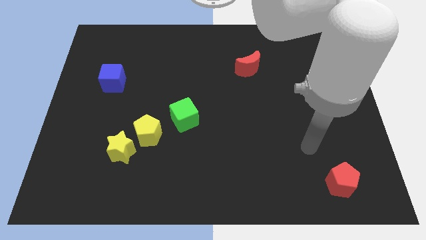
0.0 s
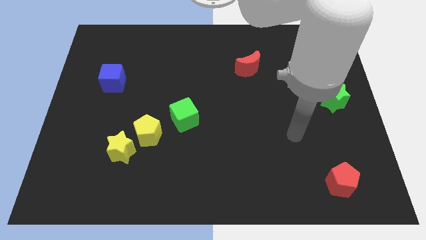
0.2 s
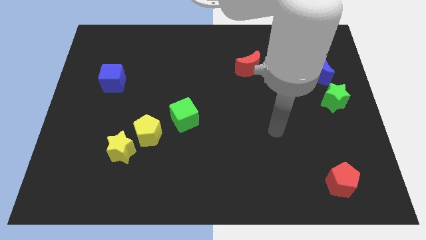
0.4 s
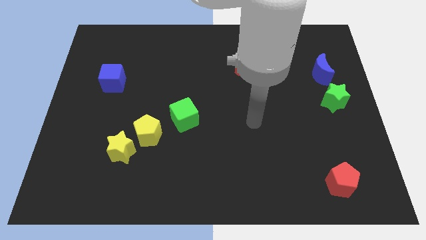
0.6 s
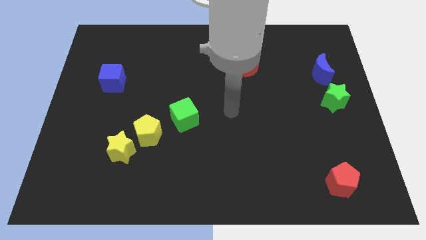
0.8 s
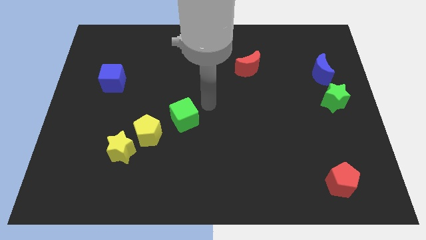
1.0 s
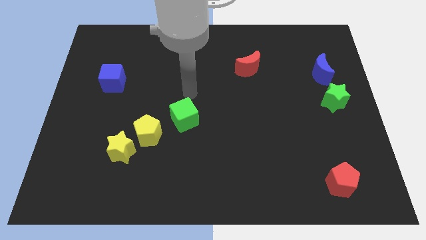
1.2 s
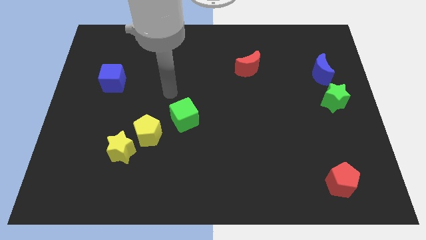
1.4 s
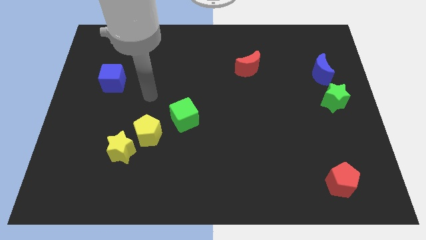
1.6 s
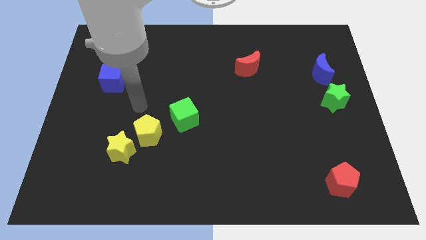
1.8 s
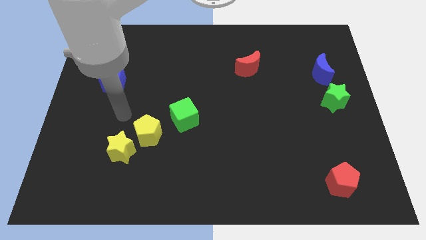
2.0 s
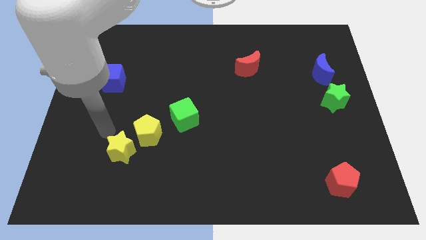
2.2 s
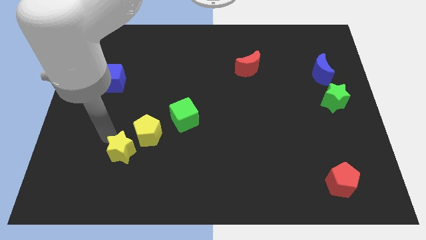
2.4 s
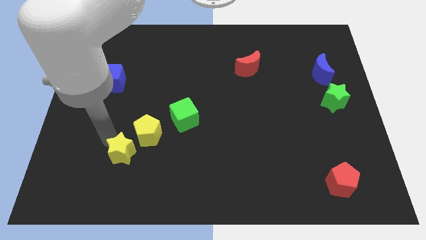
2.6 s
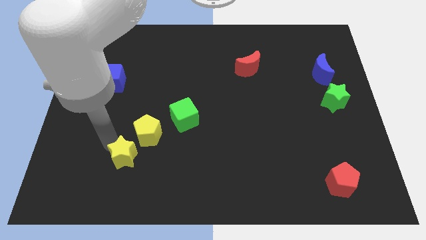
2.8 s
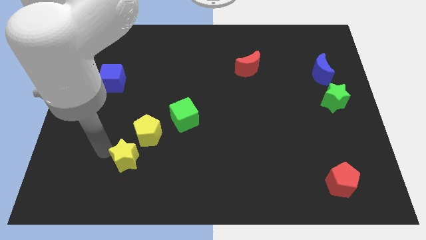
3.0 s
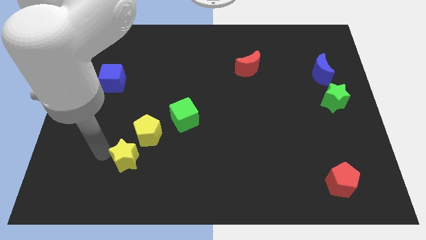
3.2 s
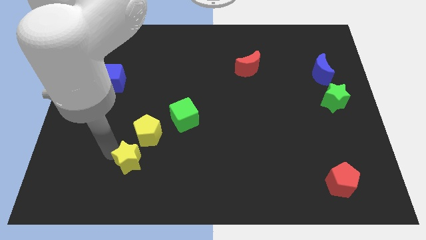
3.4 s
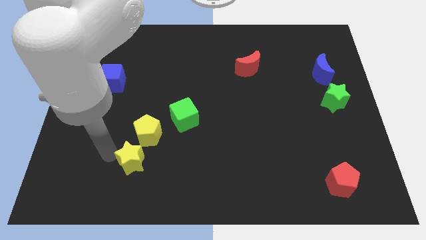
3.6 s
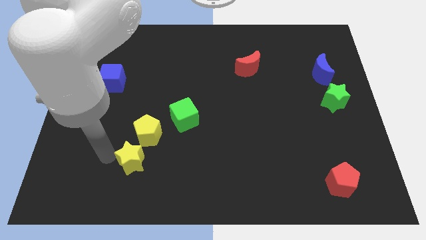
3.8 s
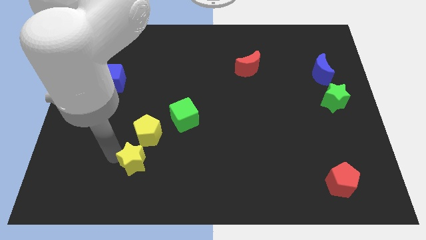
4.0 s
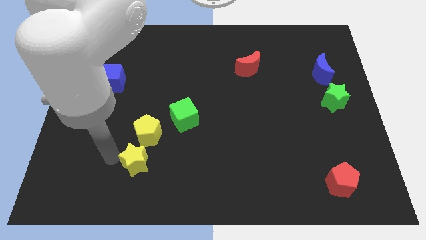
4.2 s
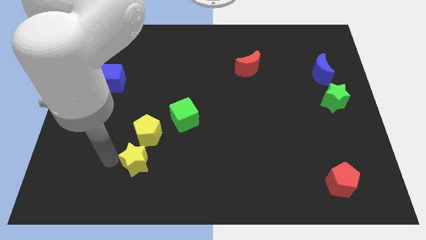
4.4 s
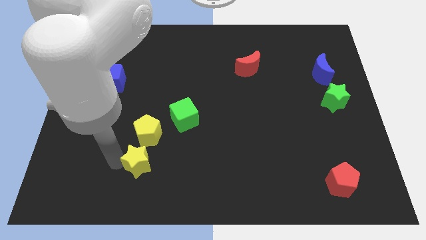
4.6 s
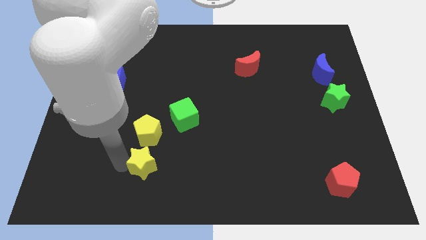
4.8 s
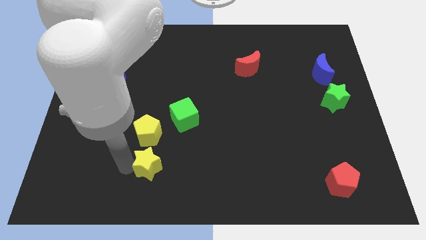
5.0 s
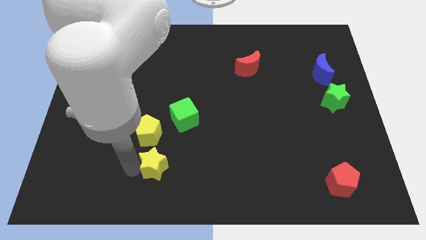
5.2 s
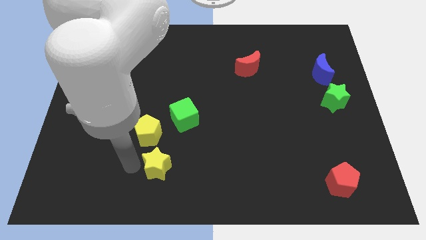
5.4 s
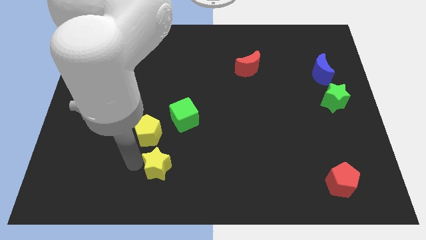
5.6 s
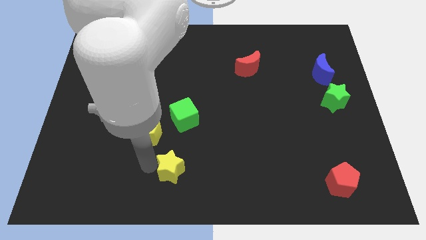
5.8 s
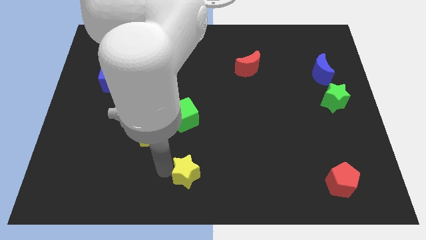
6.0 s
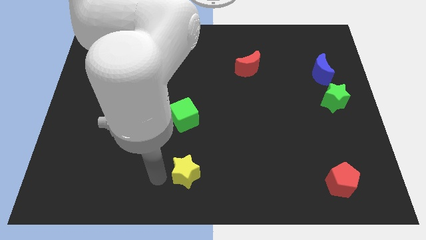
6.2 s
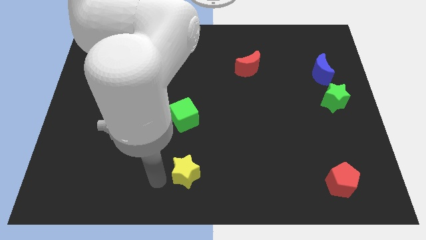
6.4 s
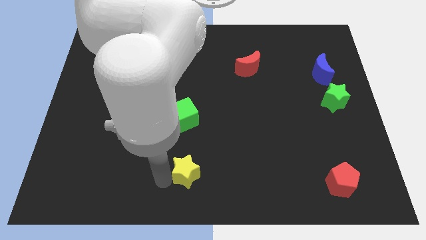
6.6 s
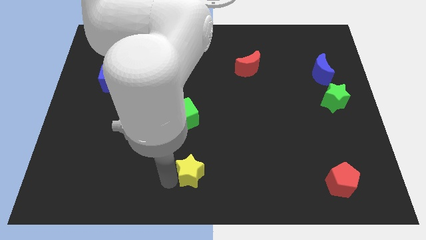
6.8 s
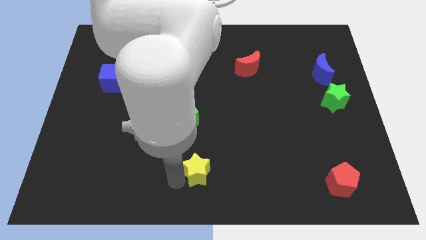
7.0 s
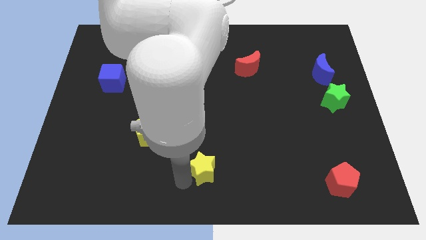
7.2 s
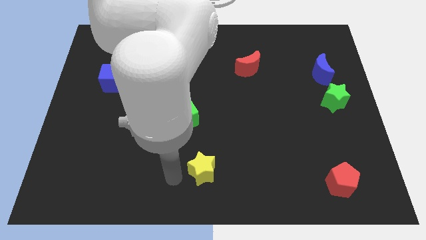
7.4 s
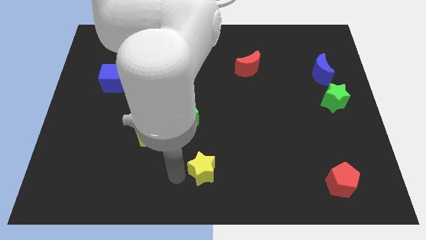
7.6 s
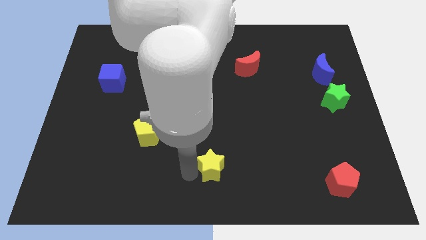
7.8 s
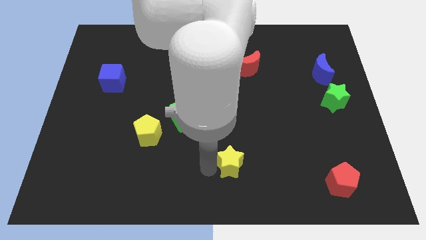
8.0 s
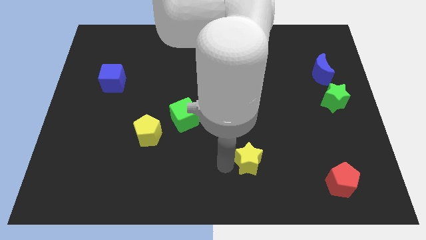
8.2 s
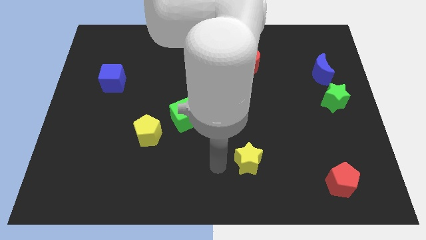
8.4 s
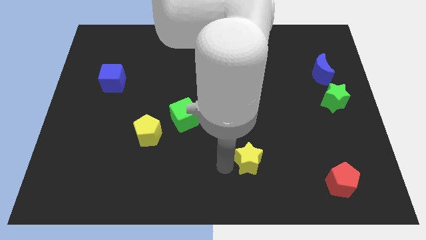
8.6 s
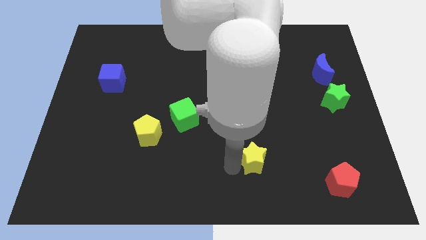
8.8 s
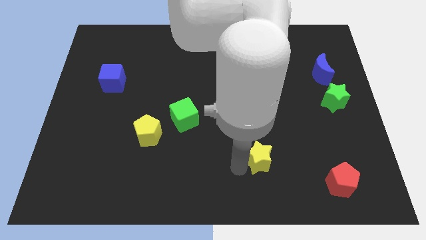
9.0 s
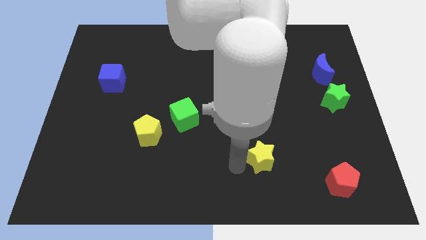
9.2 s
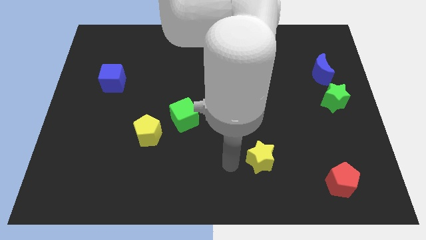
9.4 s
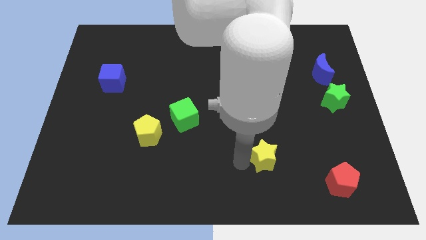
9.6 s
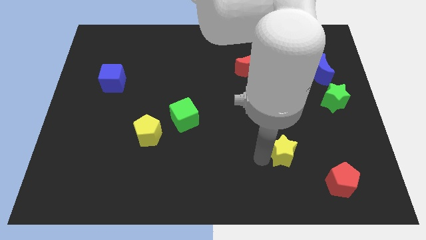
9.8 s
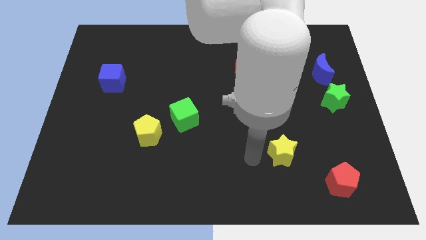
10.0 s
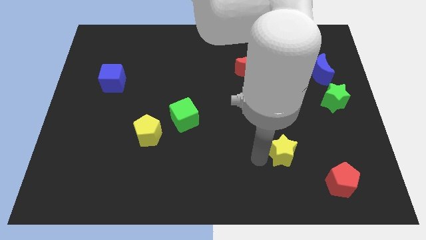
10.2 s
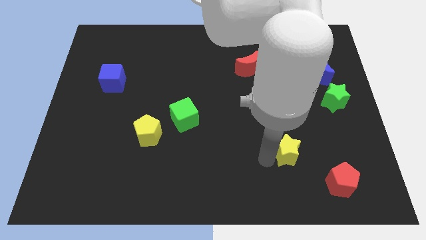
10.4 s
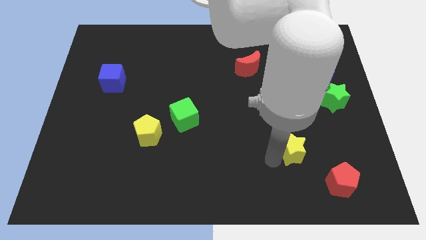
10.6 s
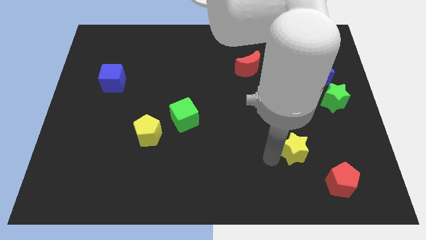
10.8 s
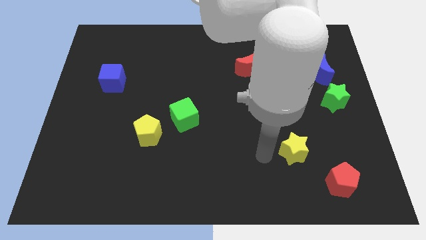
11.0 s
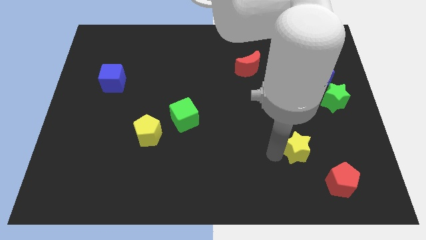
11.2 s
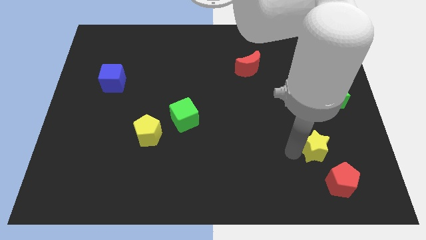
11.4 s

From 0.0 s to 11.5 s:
move the yellow star above the red pentagon

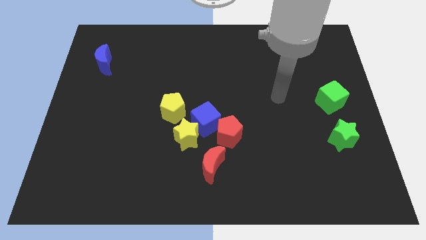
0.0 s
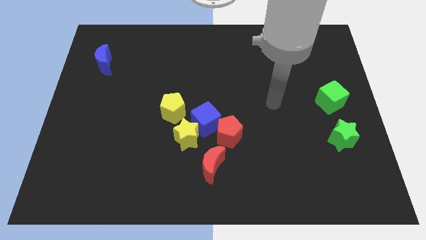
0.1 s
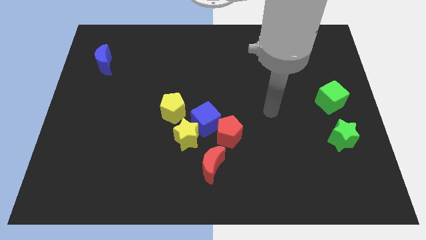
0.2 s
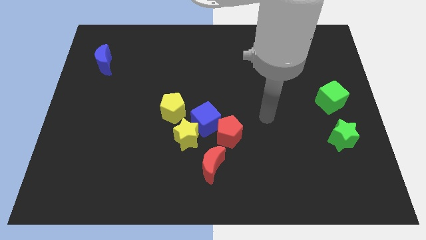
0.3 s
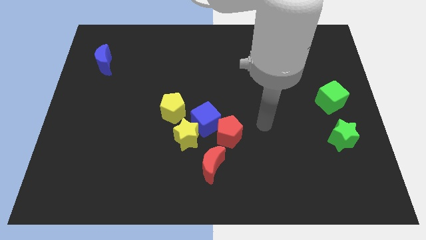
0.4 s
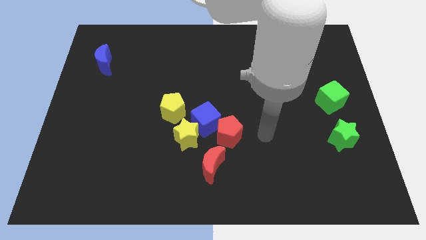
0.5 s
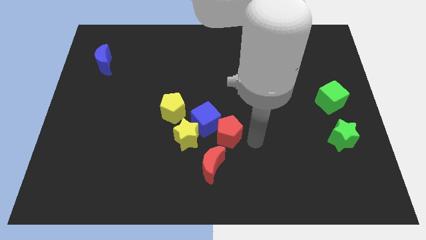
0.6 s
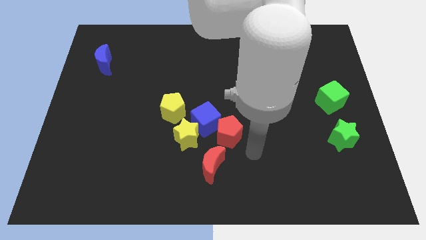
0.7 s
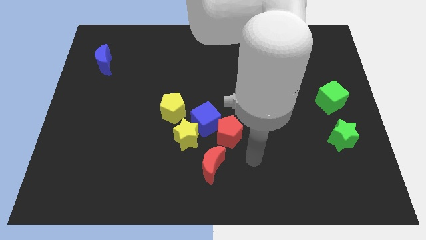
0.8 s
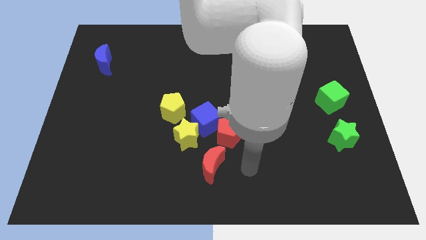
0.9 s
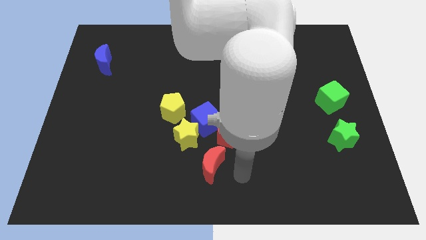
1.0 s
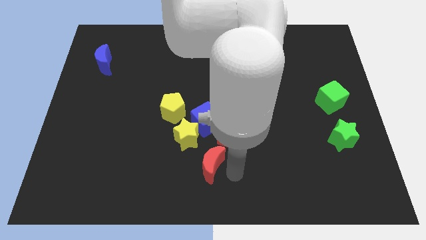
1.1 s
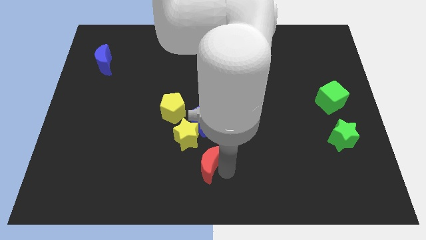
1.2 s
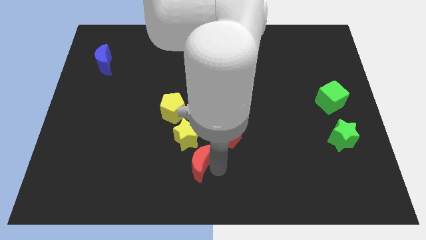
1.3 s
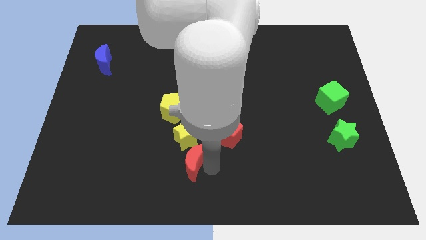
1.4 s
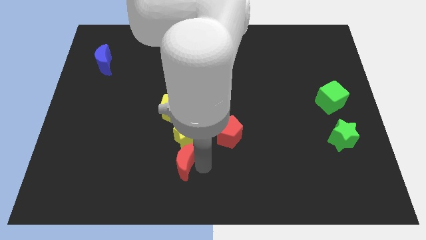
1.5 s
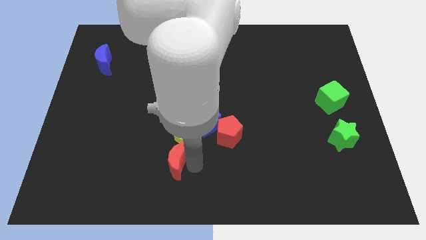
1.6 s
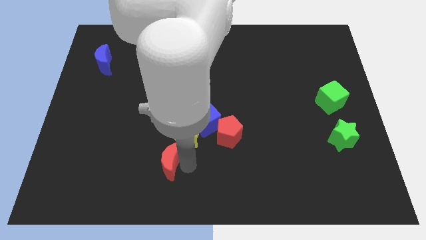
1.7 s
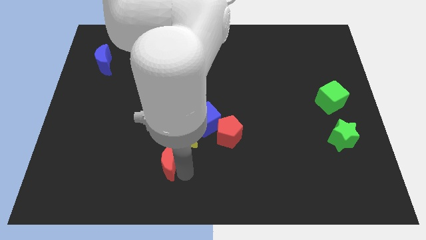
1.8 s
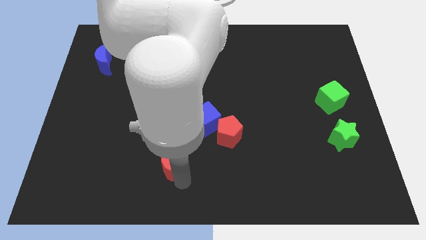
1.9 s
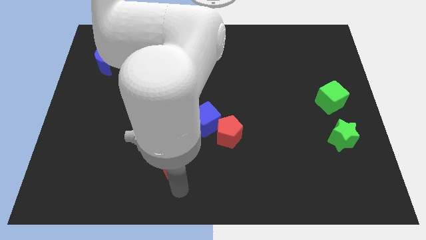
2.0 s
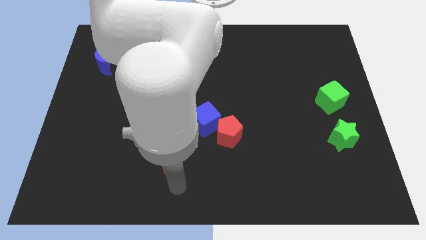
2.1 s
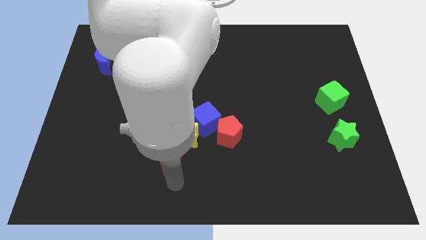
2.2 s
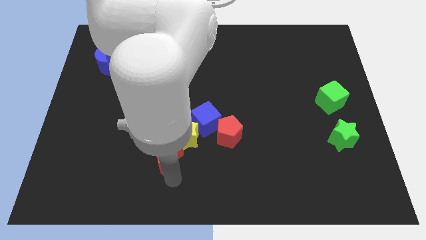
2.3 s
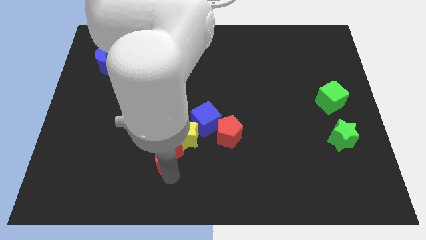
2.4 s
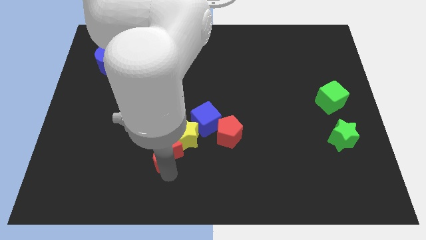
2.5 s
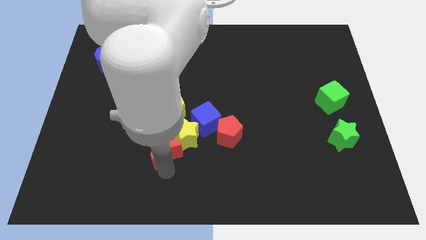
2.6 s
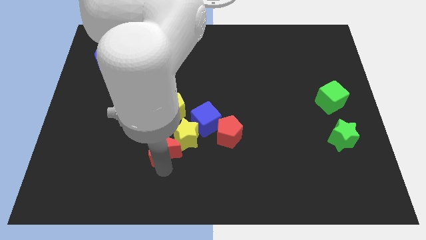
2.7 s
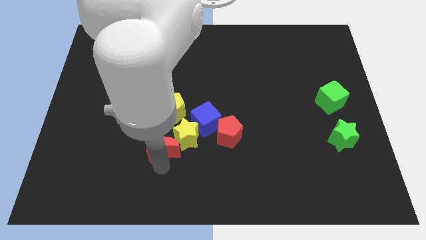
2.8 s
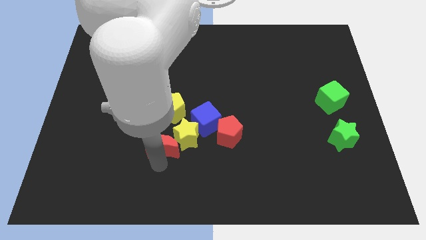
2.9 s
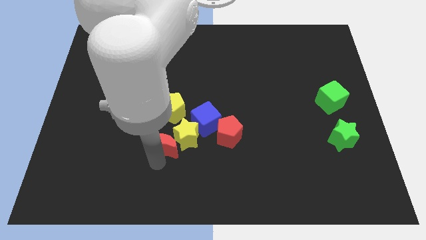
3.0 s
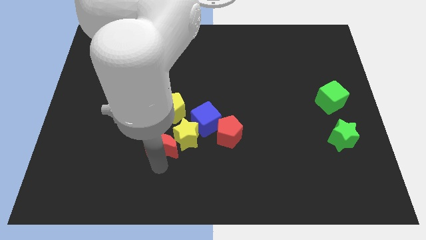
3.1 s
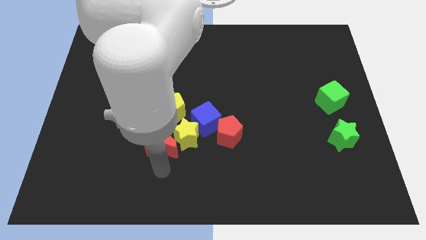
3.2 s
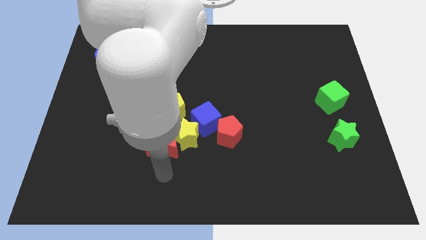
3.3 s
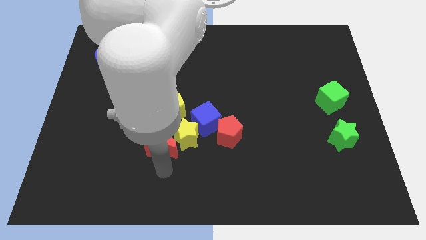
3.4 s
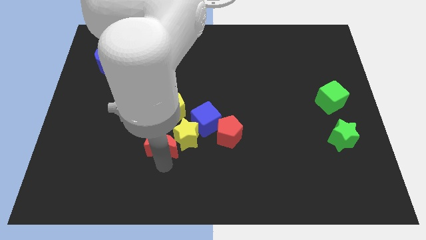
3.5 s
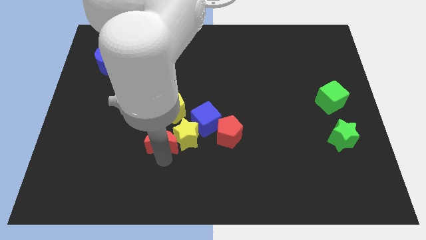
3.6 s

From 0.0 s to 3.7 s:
put the red moon diagonally up and to the left of the yellow star
